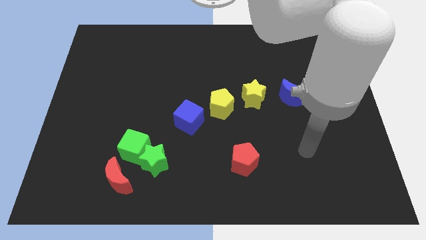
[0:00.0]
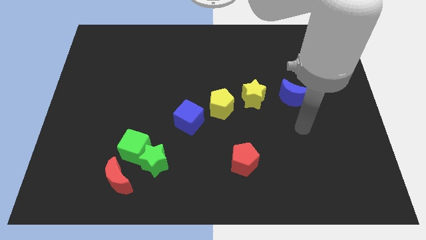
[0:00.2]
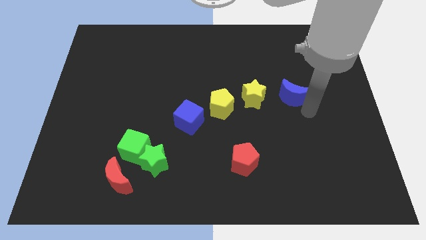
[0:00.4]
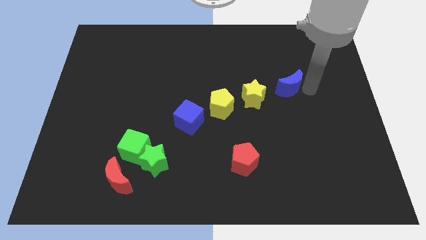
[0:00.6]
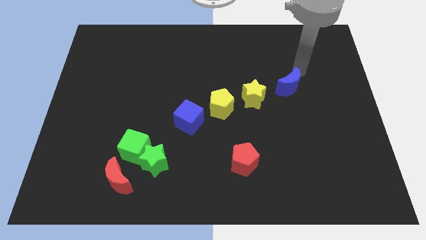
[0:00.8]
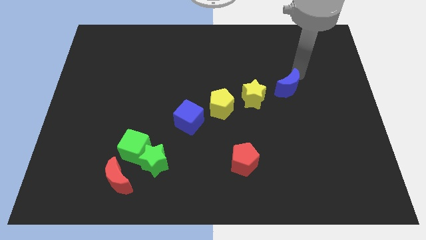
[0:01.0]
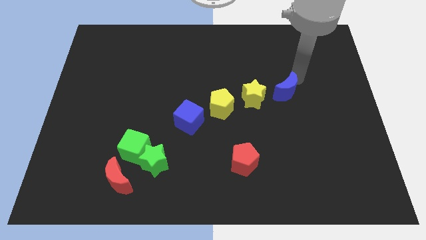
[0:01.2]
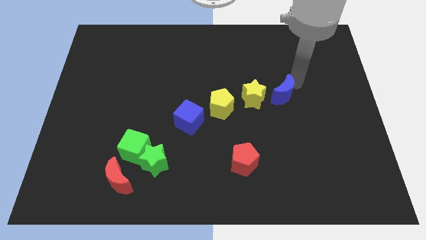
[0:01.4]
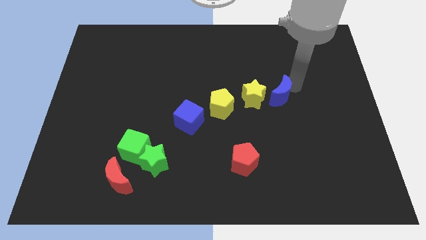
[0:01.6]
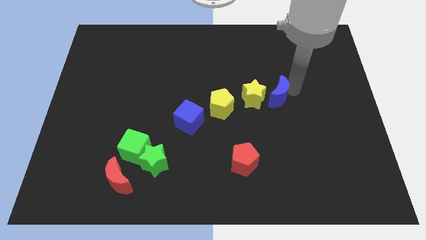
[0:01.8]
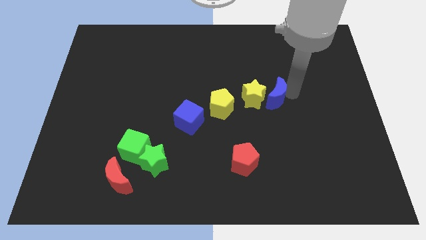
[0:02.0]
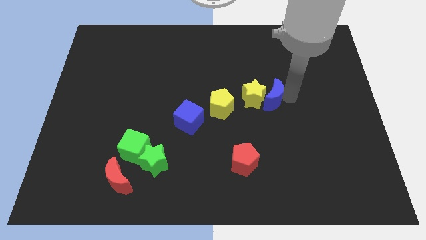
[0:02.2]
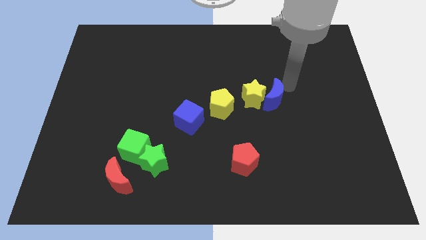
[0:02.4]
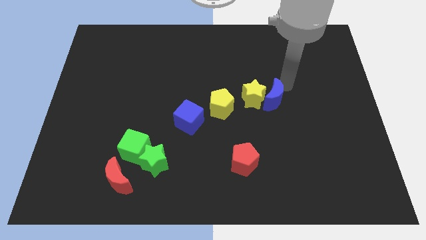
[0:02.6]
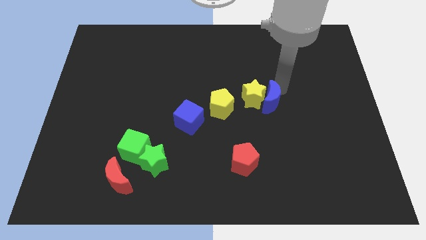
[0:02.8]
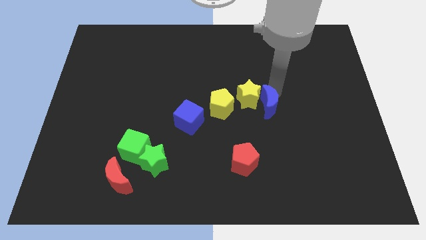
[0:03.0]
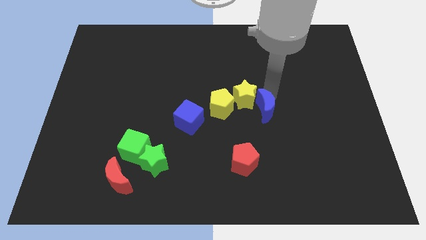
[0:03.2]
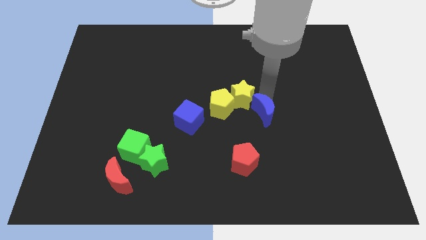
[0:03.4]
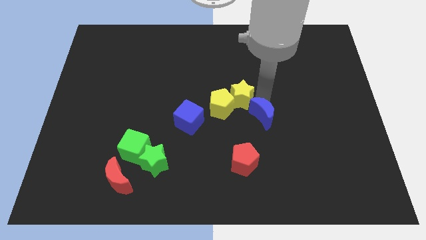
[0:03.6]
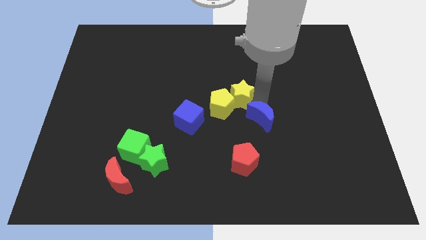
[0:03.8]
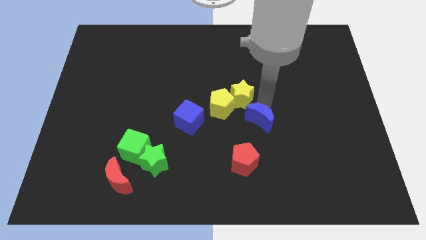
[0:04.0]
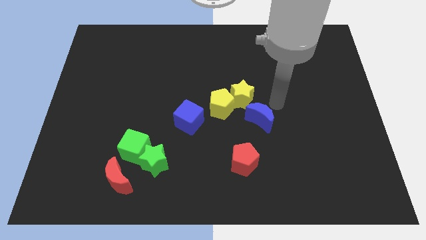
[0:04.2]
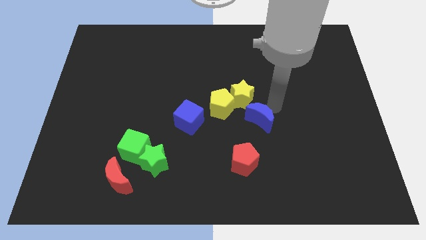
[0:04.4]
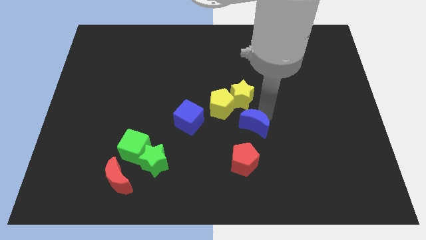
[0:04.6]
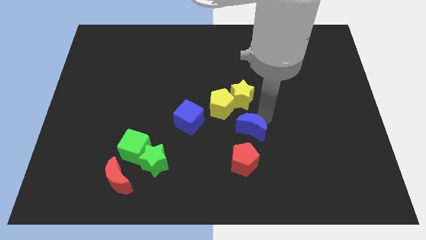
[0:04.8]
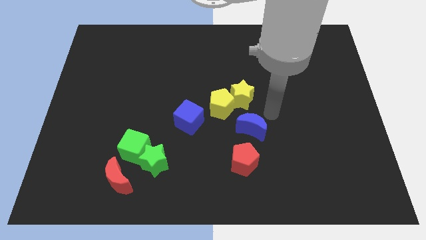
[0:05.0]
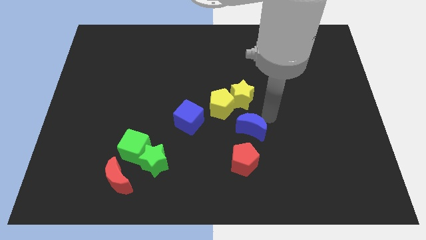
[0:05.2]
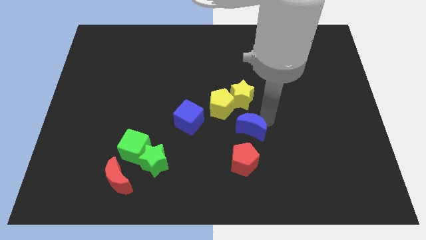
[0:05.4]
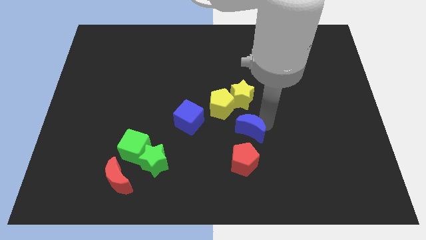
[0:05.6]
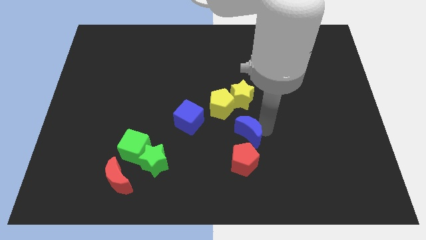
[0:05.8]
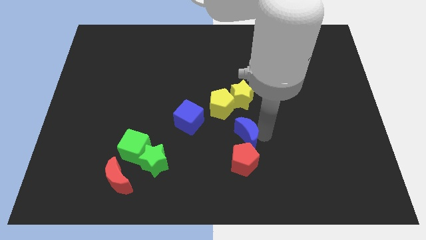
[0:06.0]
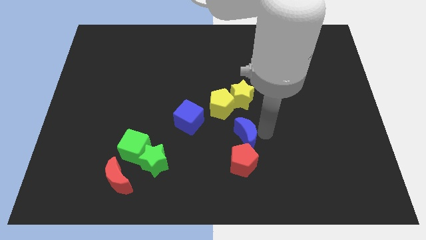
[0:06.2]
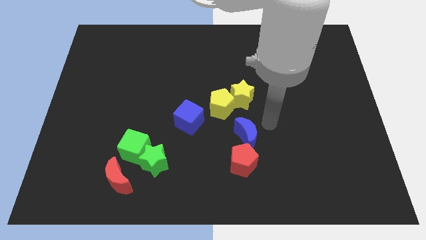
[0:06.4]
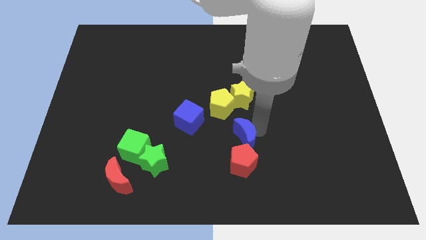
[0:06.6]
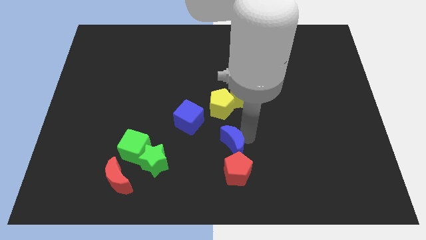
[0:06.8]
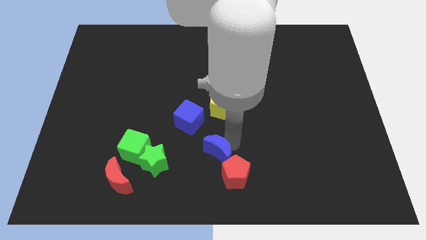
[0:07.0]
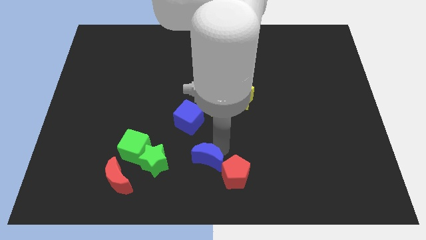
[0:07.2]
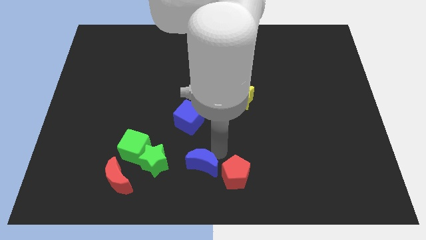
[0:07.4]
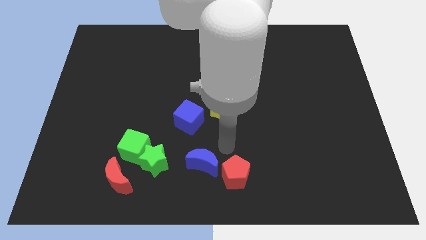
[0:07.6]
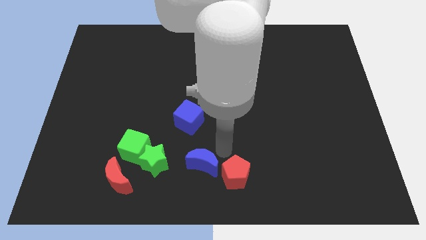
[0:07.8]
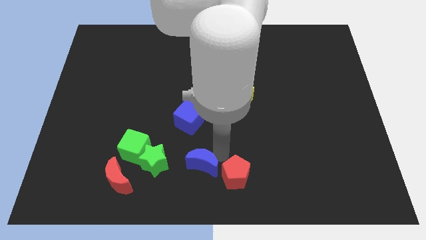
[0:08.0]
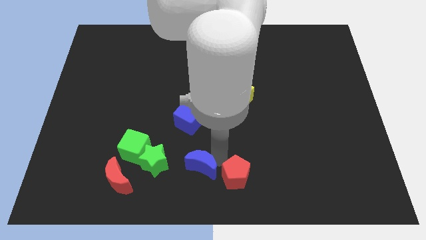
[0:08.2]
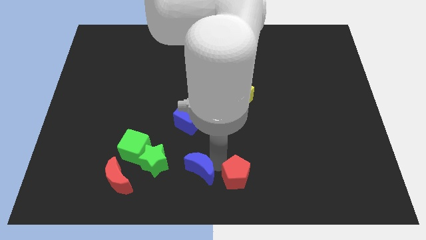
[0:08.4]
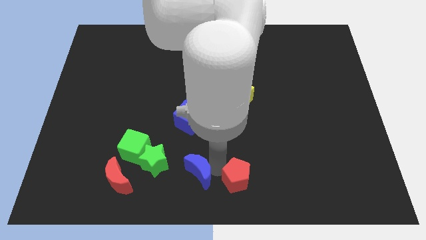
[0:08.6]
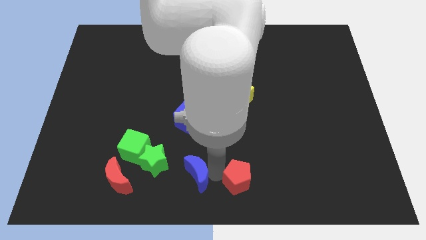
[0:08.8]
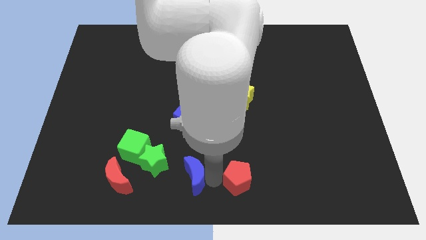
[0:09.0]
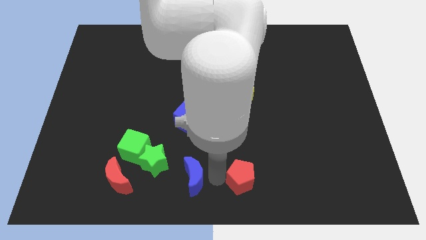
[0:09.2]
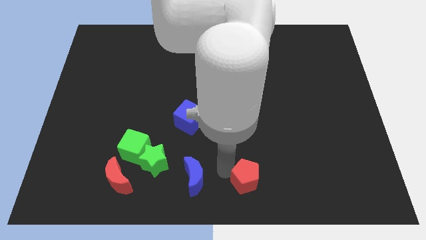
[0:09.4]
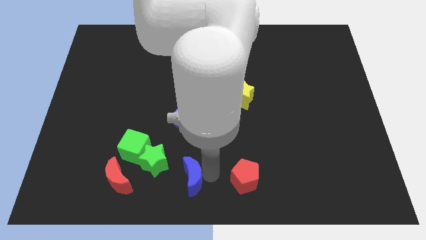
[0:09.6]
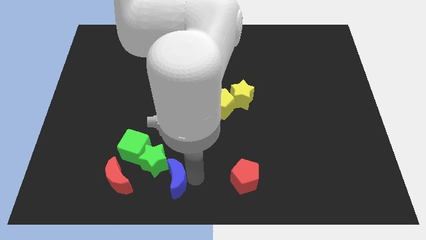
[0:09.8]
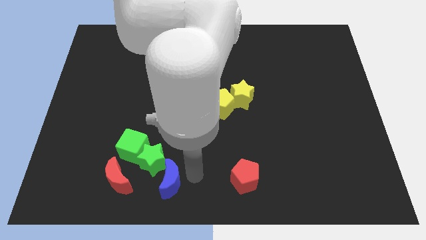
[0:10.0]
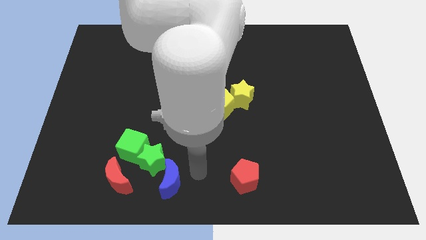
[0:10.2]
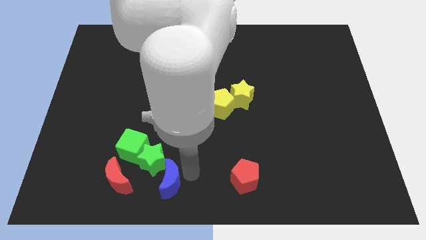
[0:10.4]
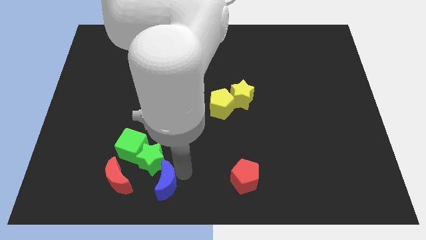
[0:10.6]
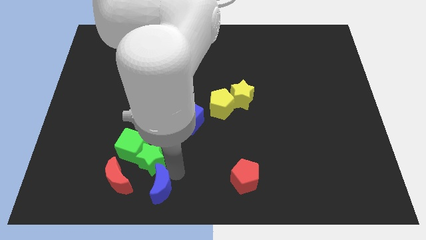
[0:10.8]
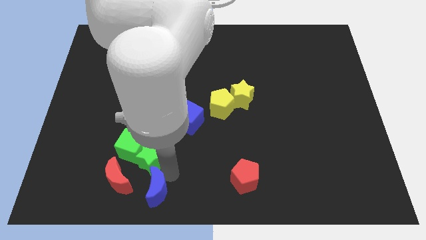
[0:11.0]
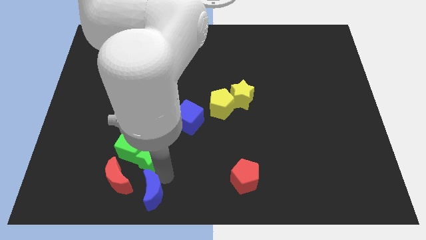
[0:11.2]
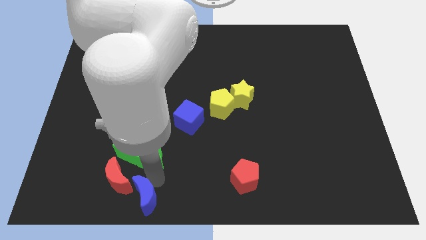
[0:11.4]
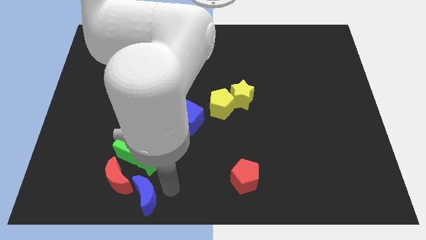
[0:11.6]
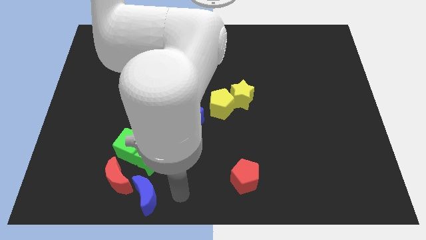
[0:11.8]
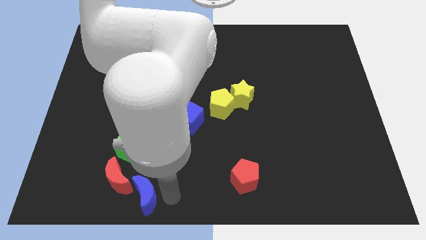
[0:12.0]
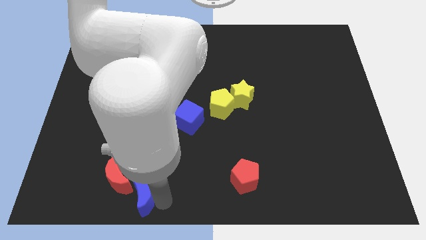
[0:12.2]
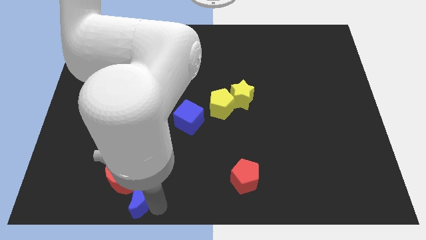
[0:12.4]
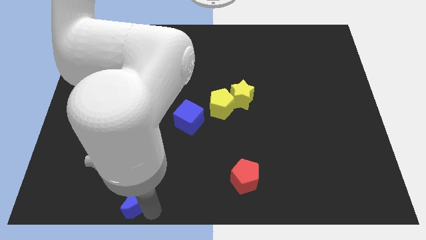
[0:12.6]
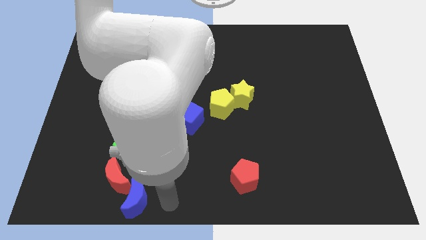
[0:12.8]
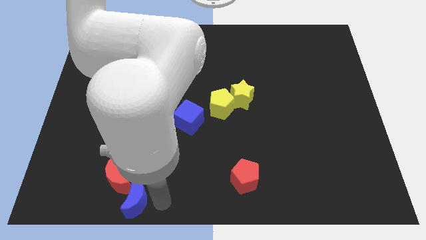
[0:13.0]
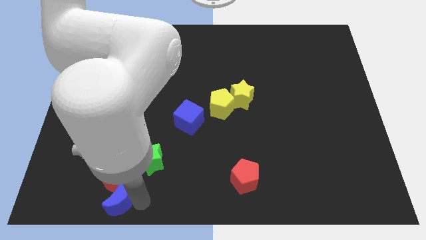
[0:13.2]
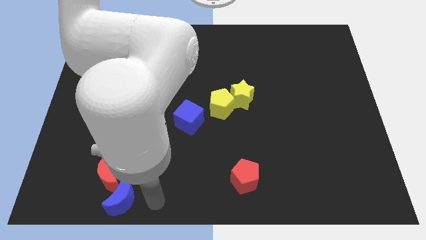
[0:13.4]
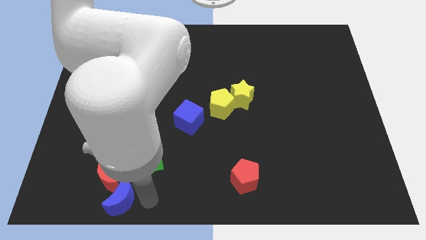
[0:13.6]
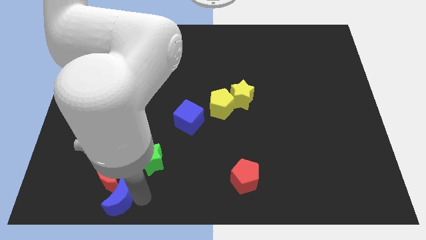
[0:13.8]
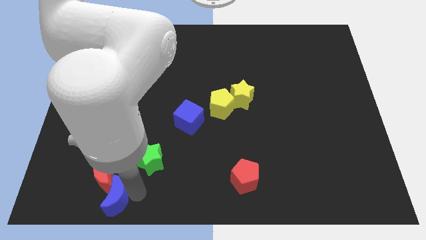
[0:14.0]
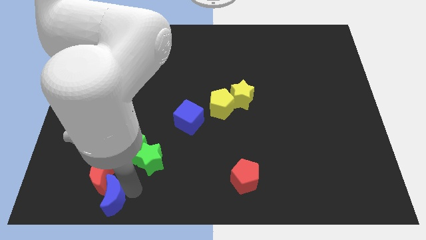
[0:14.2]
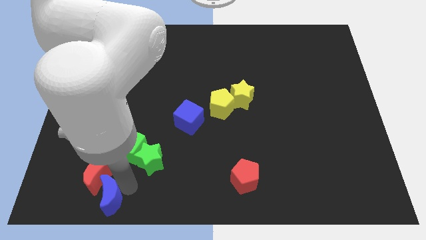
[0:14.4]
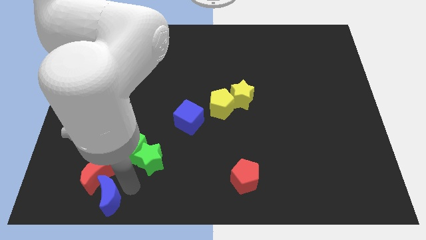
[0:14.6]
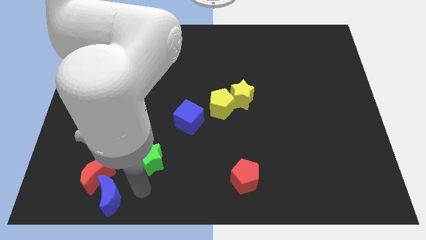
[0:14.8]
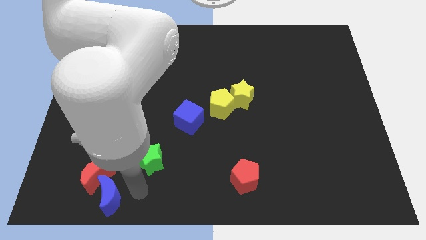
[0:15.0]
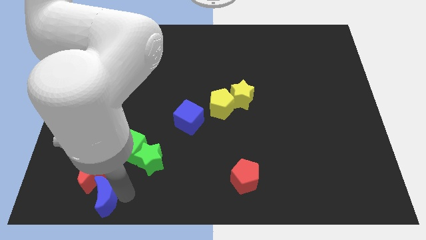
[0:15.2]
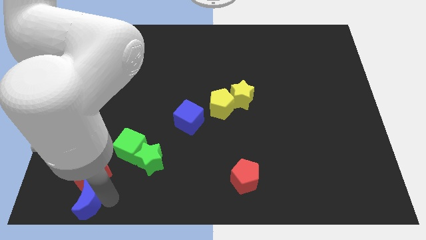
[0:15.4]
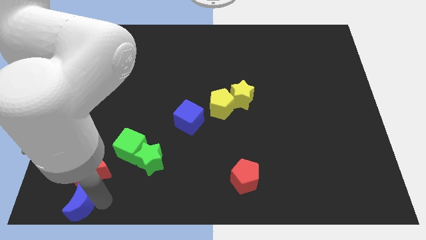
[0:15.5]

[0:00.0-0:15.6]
slide the blue moon to the lower left corner
